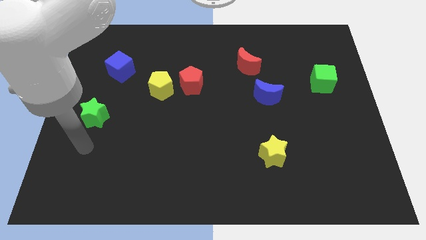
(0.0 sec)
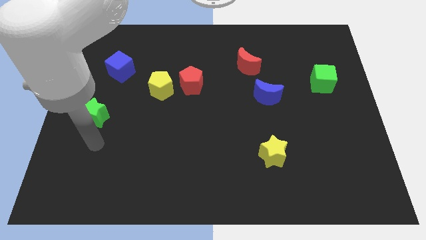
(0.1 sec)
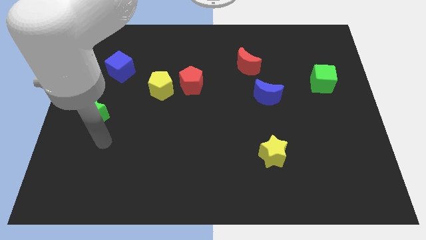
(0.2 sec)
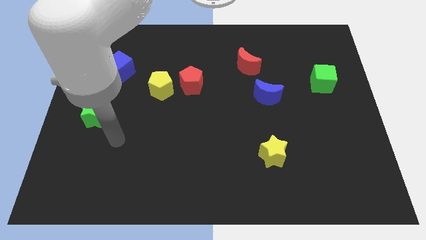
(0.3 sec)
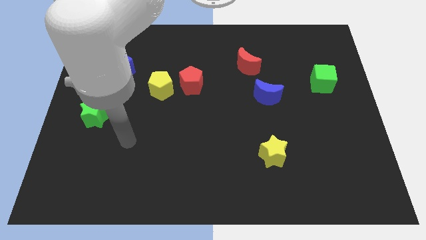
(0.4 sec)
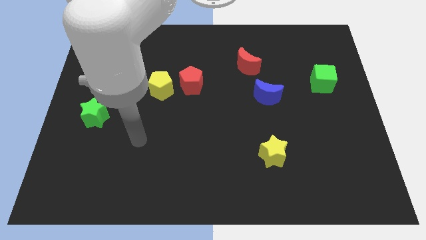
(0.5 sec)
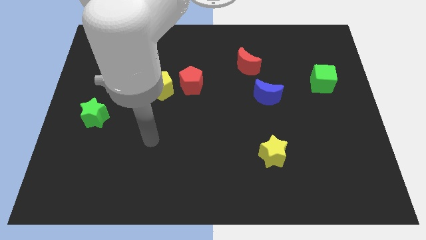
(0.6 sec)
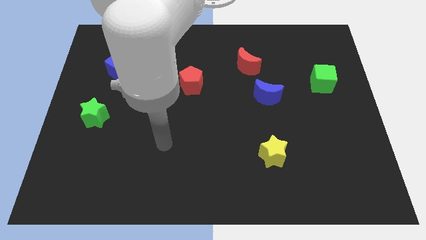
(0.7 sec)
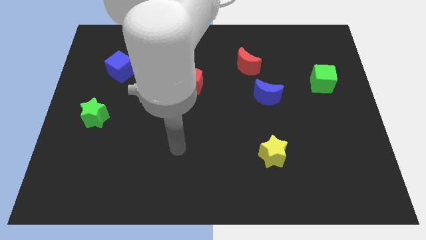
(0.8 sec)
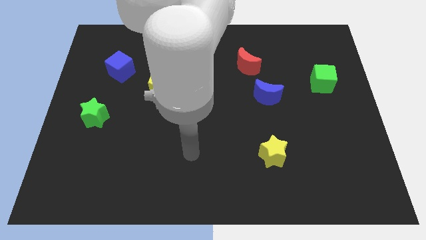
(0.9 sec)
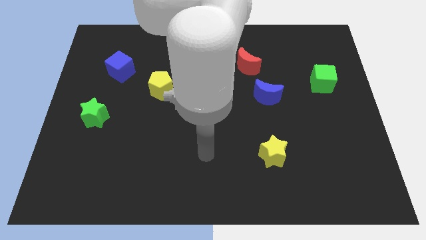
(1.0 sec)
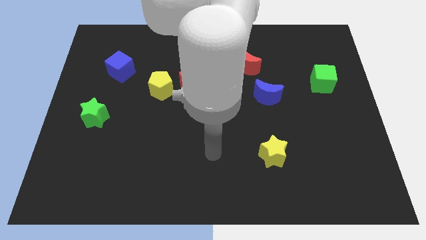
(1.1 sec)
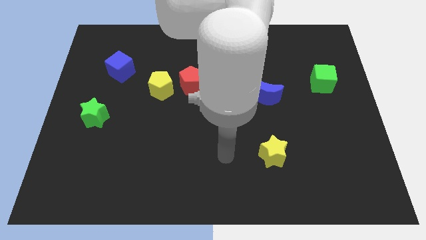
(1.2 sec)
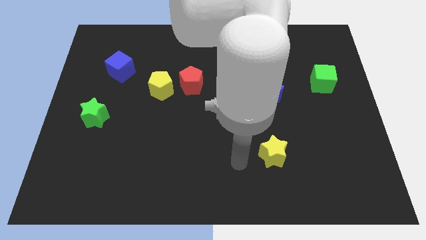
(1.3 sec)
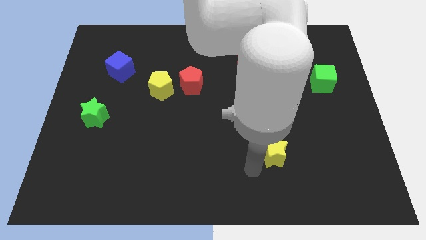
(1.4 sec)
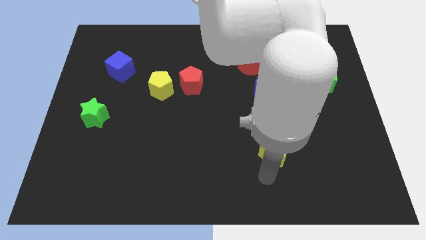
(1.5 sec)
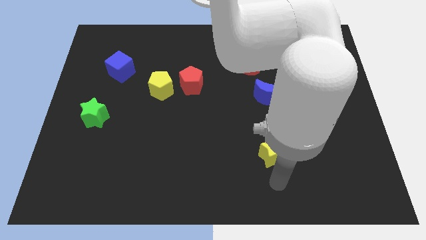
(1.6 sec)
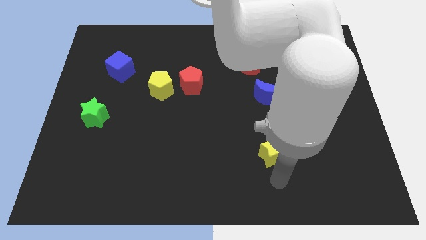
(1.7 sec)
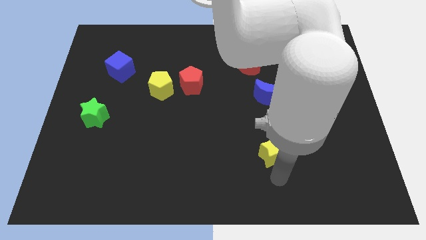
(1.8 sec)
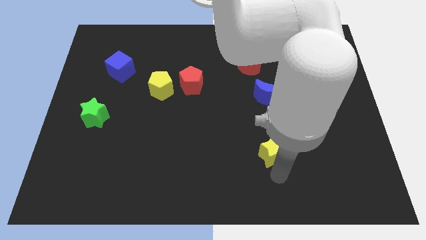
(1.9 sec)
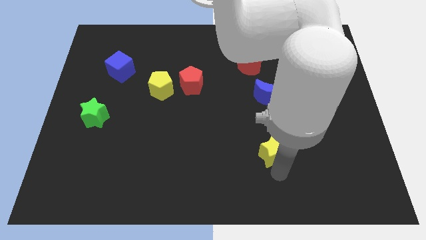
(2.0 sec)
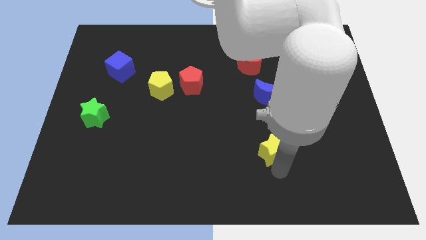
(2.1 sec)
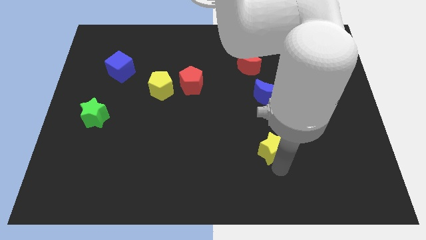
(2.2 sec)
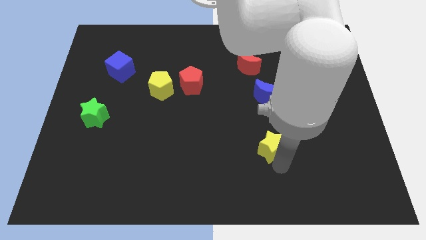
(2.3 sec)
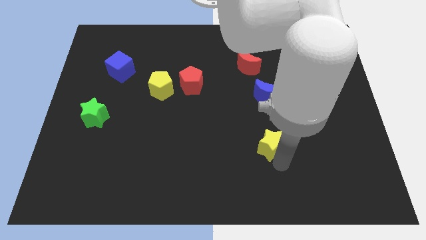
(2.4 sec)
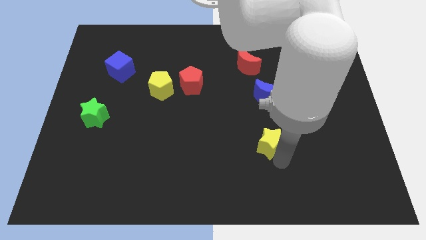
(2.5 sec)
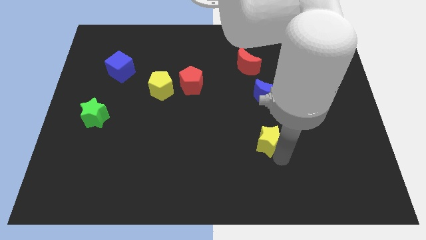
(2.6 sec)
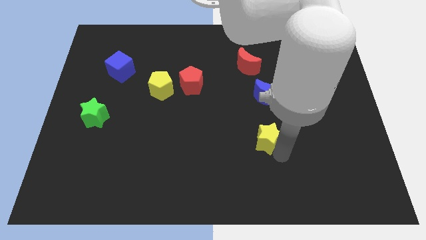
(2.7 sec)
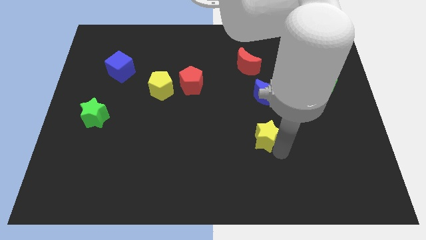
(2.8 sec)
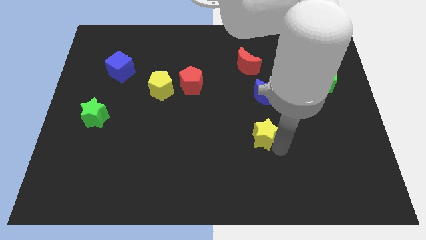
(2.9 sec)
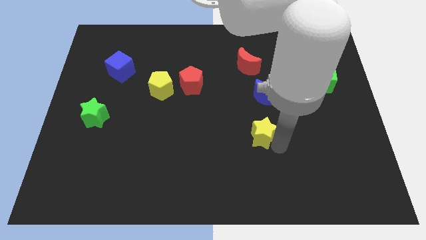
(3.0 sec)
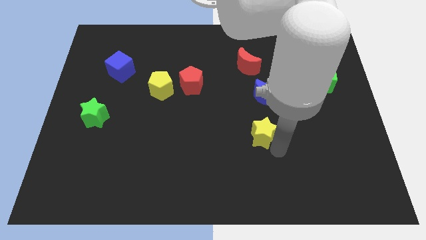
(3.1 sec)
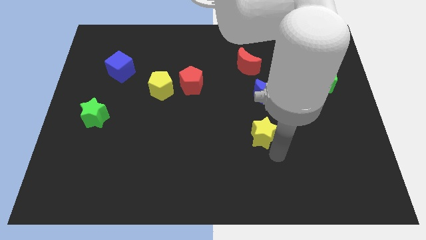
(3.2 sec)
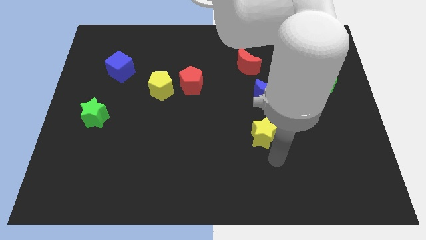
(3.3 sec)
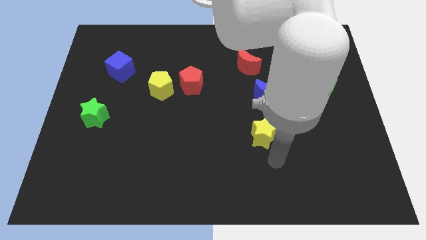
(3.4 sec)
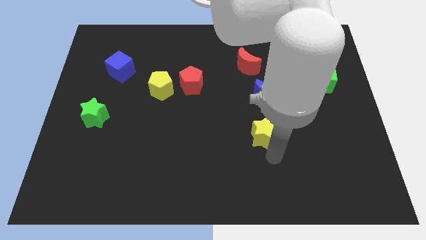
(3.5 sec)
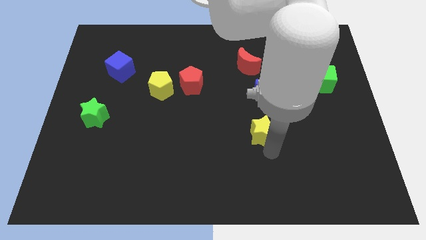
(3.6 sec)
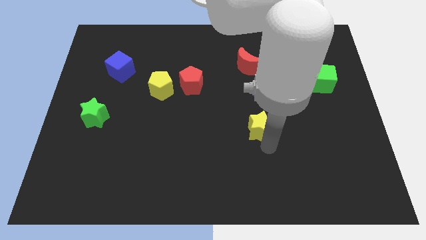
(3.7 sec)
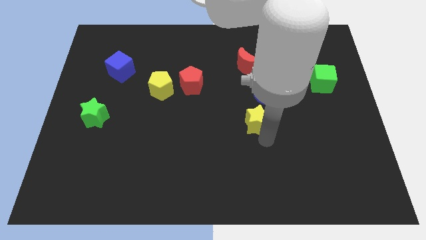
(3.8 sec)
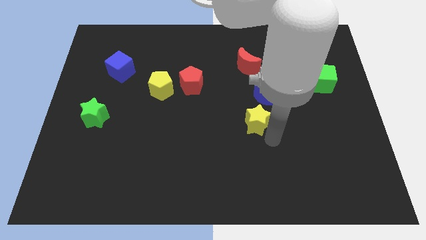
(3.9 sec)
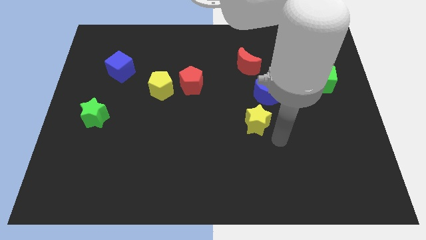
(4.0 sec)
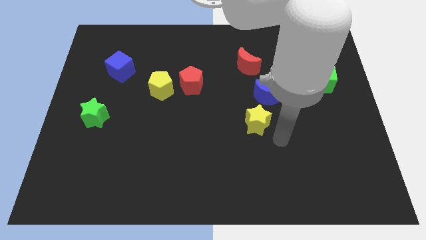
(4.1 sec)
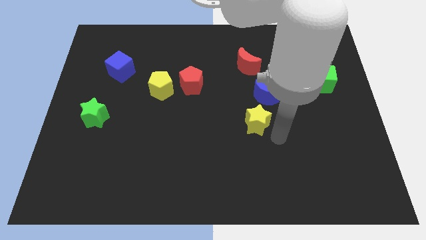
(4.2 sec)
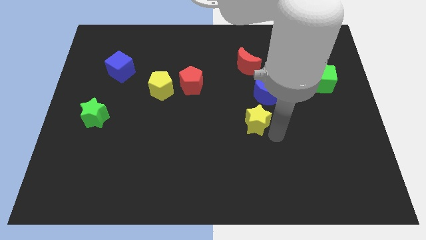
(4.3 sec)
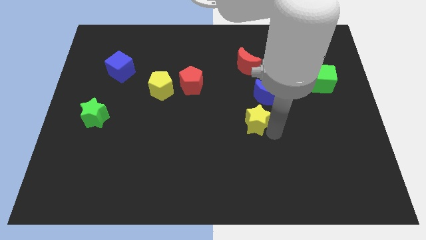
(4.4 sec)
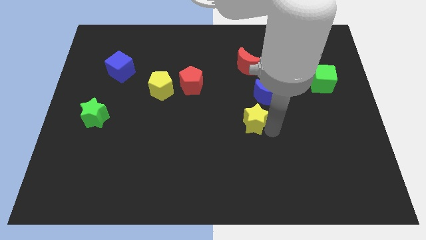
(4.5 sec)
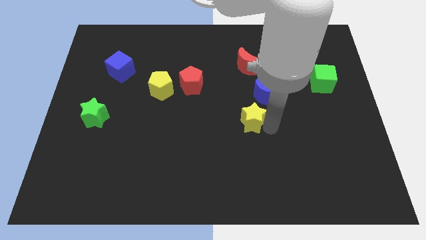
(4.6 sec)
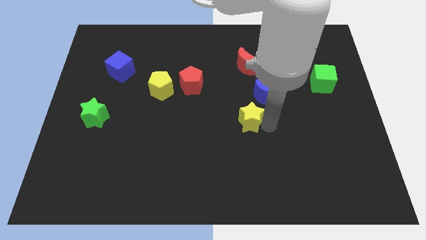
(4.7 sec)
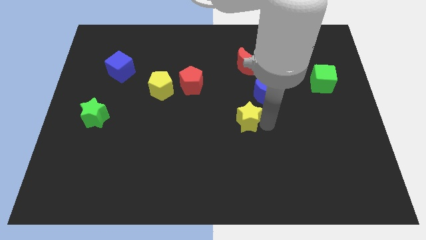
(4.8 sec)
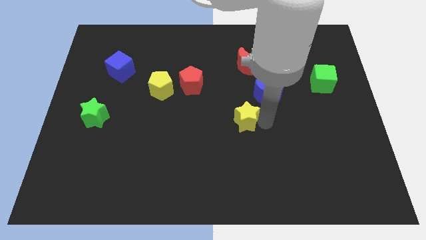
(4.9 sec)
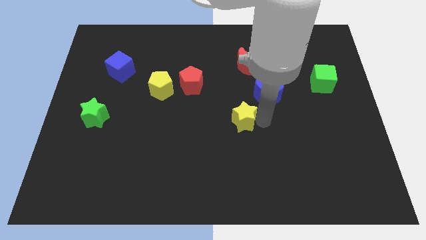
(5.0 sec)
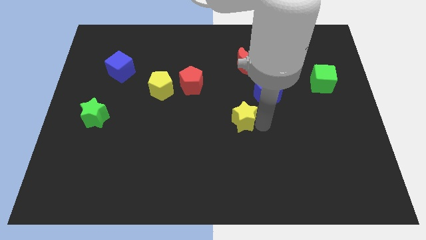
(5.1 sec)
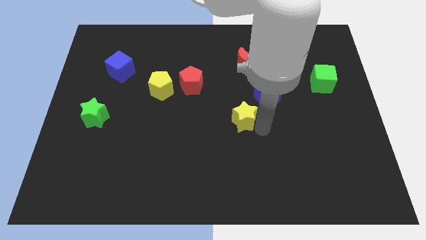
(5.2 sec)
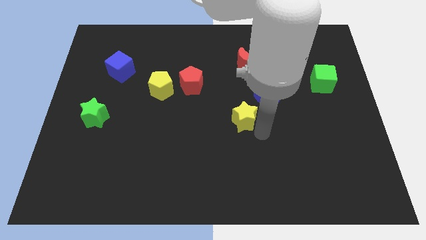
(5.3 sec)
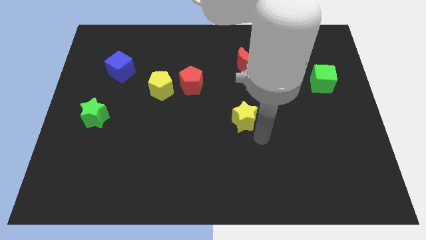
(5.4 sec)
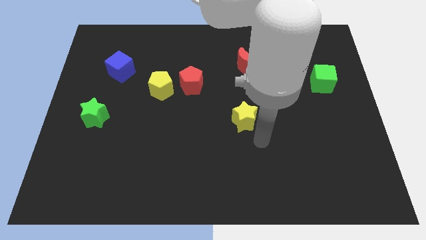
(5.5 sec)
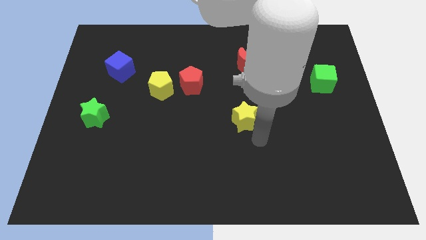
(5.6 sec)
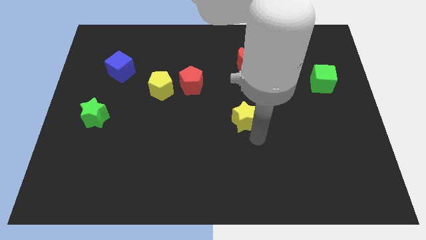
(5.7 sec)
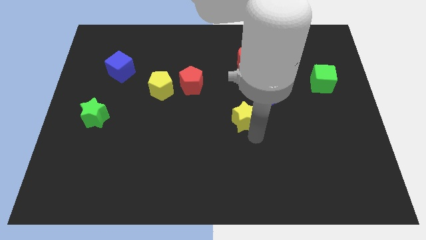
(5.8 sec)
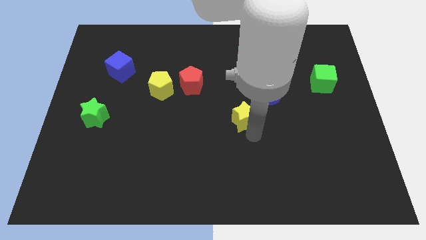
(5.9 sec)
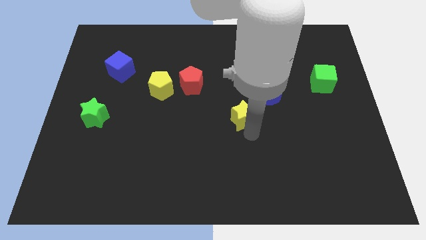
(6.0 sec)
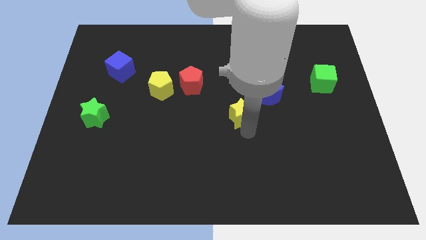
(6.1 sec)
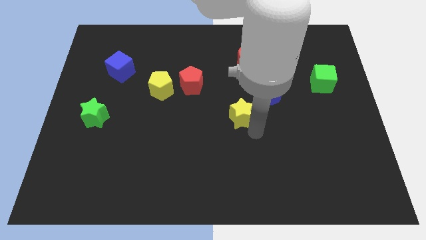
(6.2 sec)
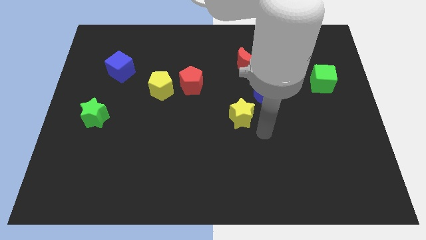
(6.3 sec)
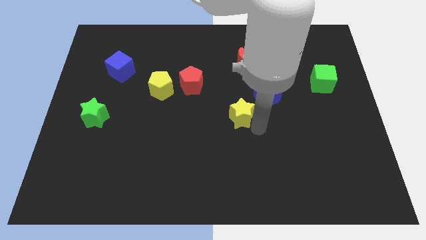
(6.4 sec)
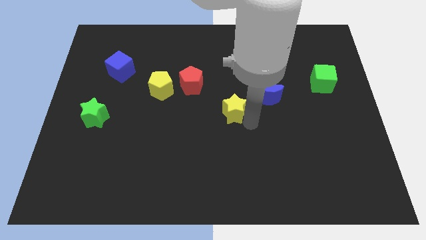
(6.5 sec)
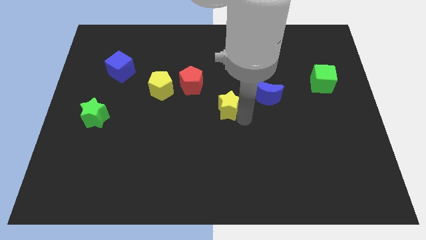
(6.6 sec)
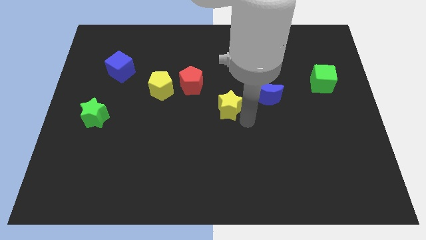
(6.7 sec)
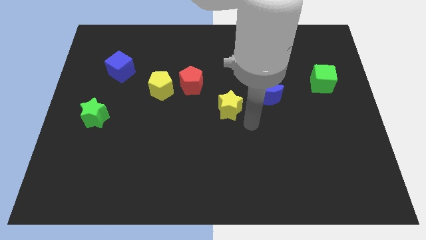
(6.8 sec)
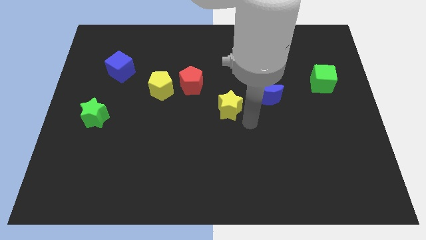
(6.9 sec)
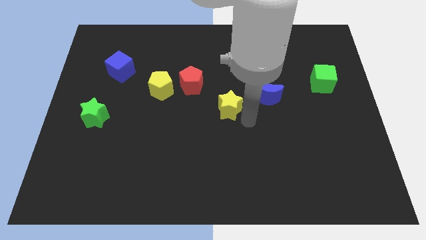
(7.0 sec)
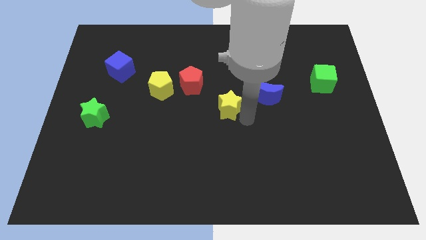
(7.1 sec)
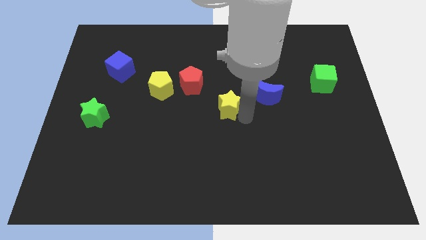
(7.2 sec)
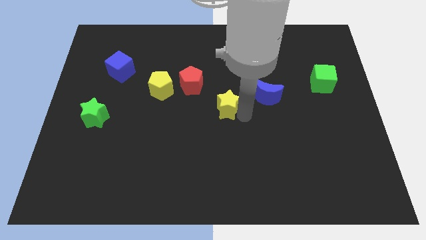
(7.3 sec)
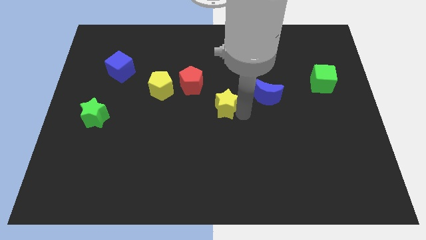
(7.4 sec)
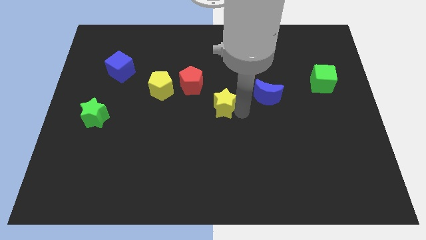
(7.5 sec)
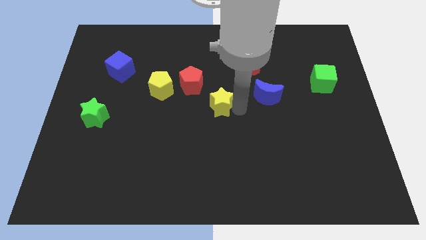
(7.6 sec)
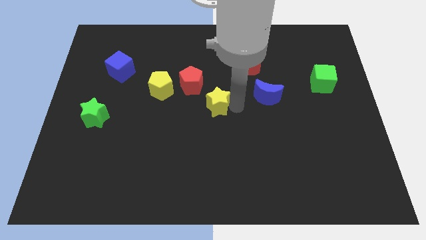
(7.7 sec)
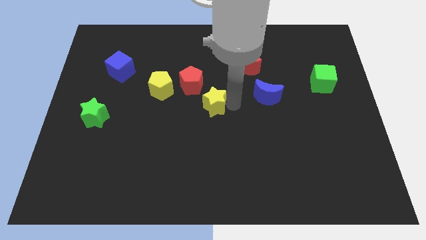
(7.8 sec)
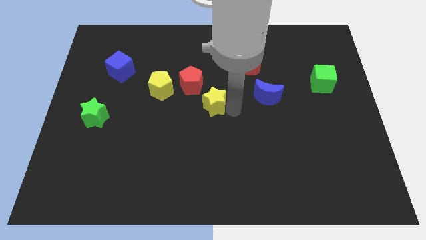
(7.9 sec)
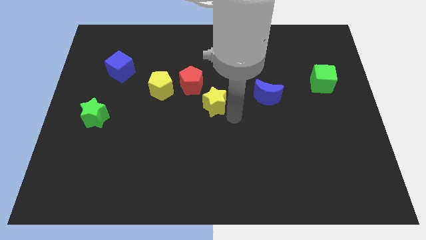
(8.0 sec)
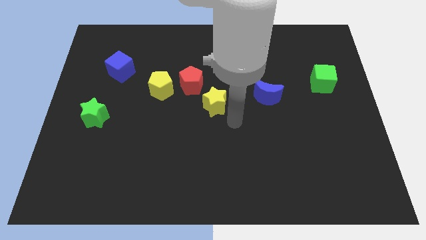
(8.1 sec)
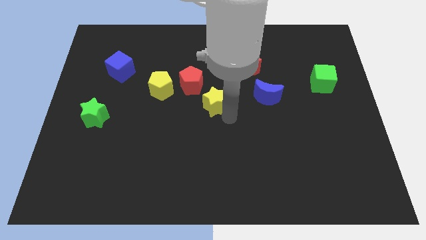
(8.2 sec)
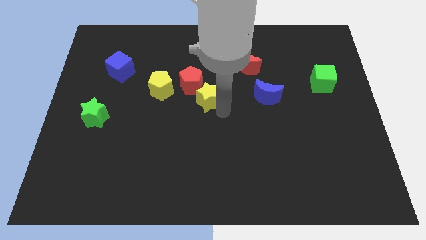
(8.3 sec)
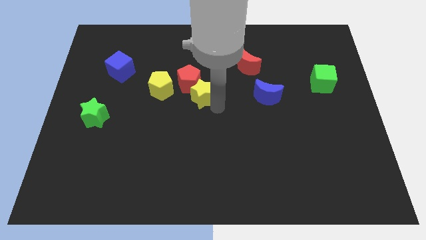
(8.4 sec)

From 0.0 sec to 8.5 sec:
push the yellow star close to the red pentagon

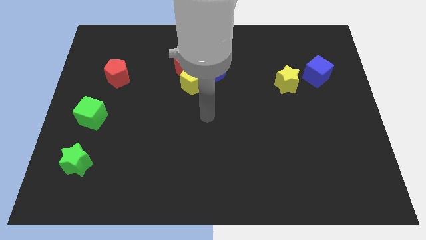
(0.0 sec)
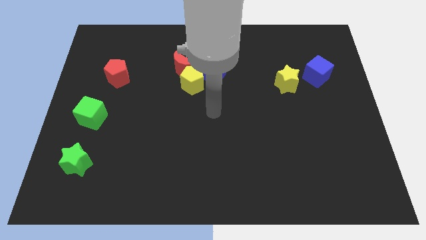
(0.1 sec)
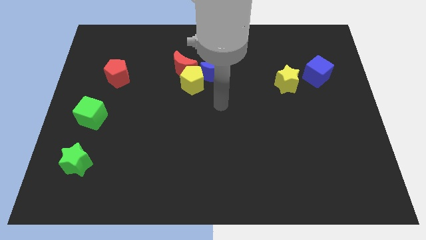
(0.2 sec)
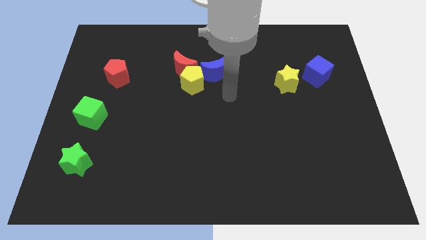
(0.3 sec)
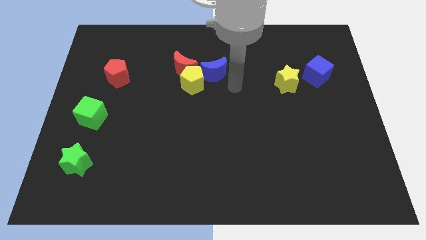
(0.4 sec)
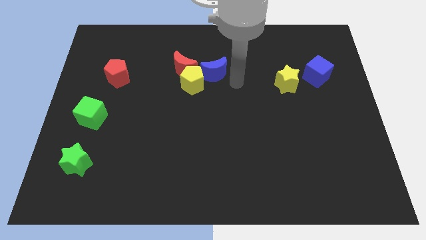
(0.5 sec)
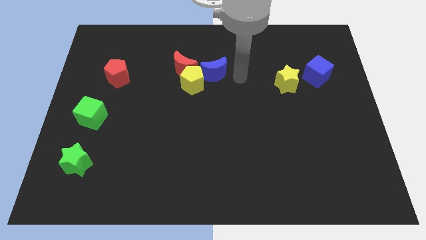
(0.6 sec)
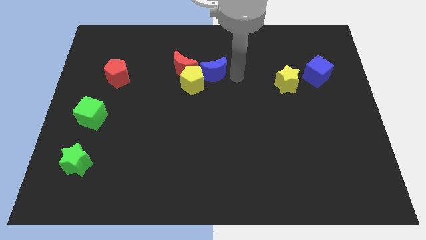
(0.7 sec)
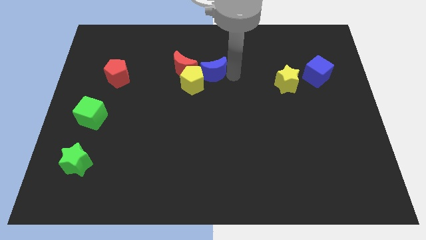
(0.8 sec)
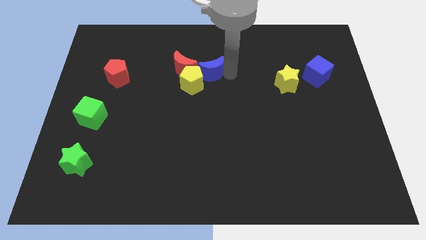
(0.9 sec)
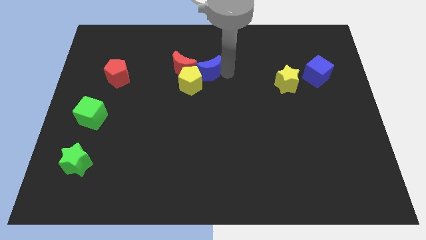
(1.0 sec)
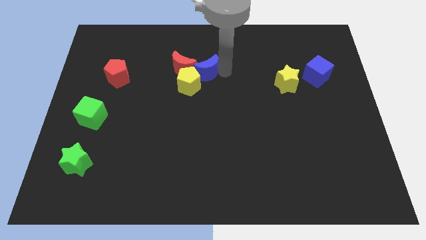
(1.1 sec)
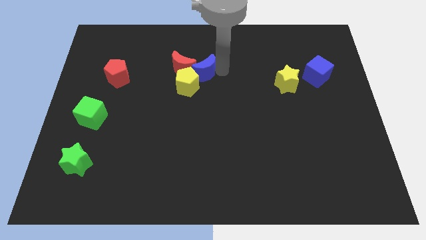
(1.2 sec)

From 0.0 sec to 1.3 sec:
push the blue moon next to the red moon
